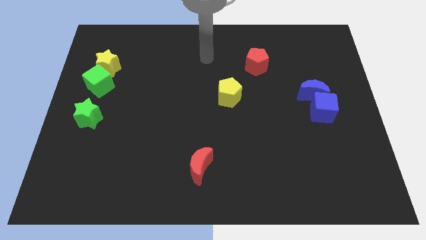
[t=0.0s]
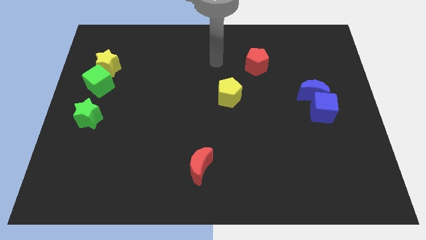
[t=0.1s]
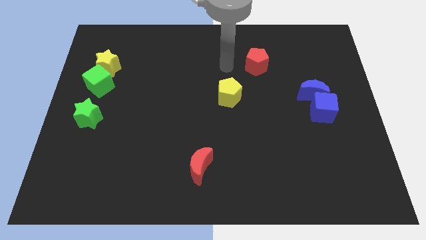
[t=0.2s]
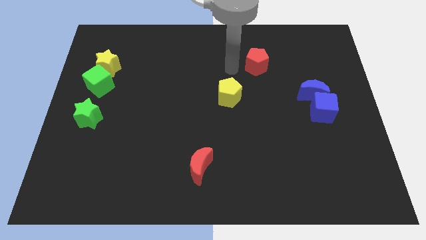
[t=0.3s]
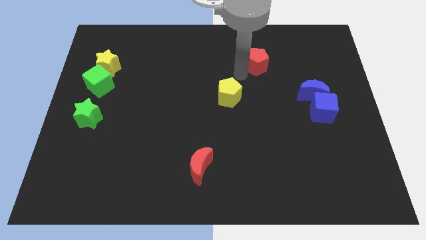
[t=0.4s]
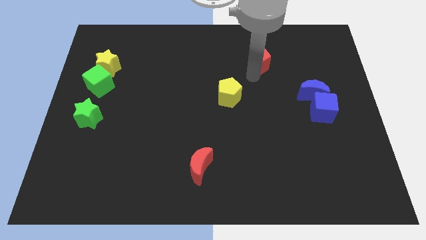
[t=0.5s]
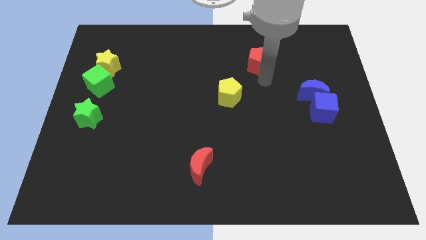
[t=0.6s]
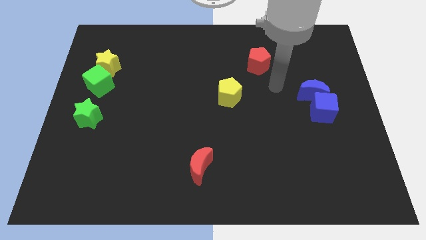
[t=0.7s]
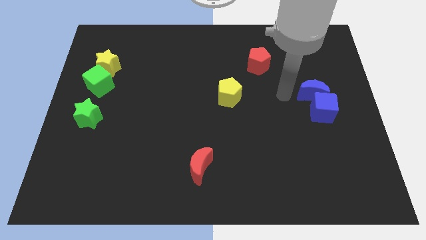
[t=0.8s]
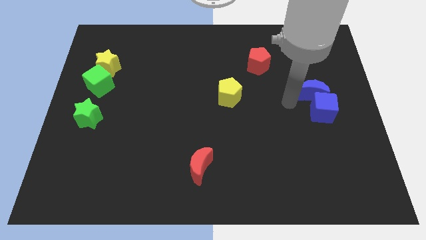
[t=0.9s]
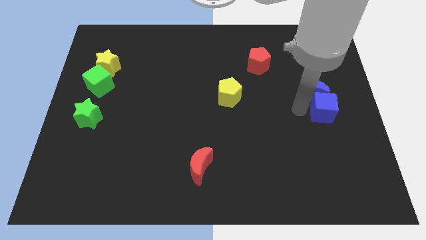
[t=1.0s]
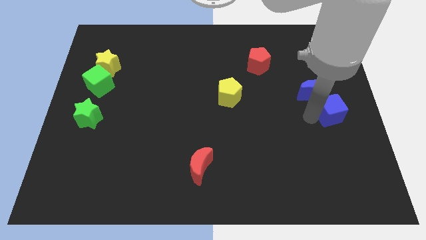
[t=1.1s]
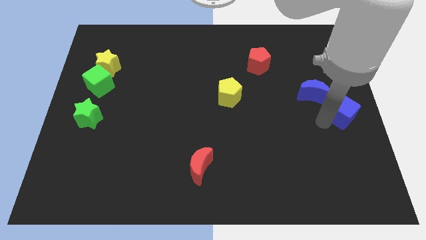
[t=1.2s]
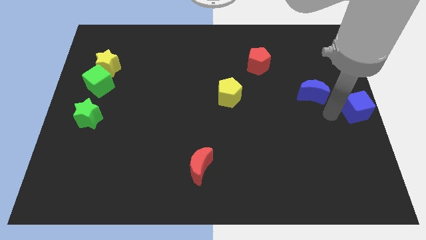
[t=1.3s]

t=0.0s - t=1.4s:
separate the blue moon from the blue cube

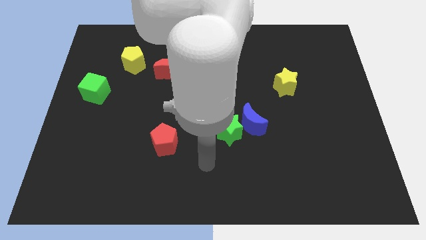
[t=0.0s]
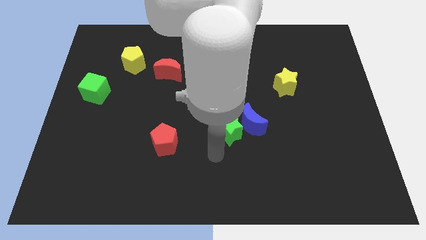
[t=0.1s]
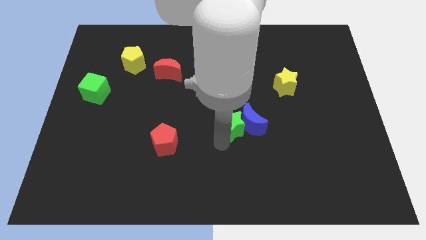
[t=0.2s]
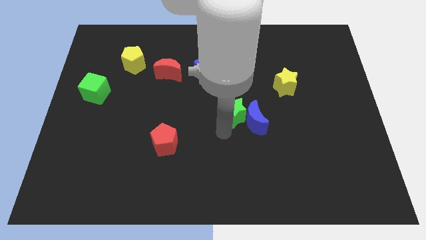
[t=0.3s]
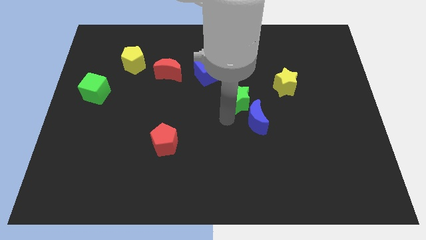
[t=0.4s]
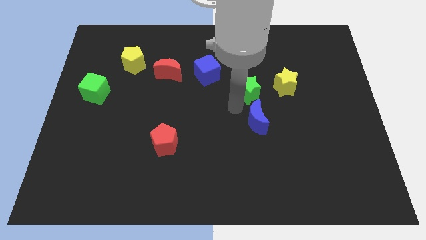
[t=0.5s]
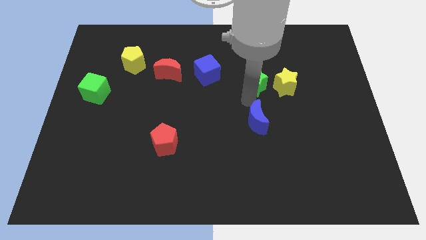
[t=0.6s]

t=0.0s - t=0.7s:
pull the blue moon apart from the green star

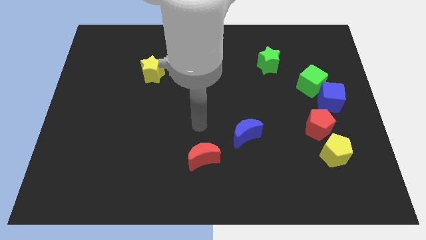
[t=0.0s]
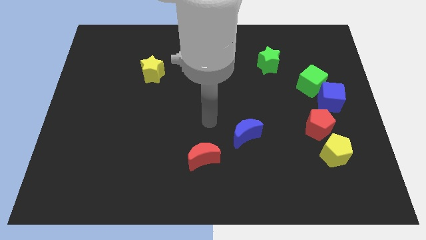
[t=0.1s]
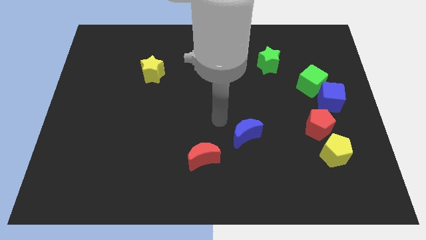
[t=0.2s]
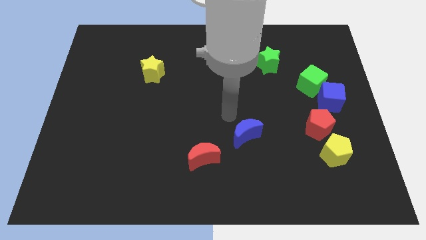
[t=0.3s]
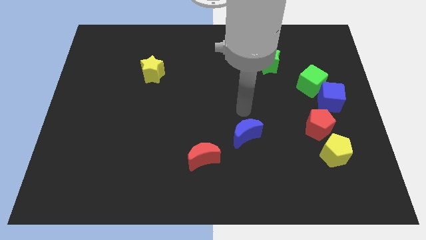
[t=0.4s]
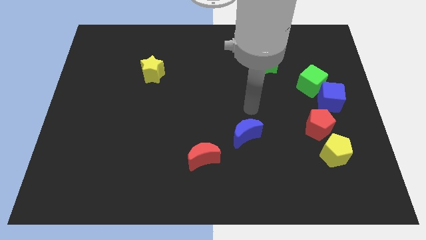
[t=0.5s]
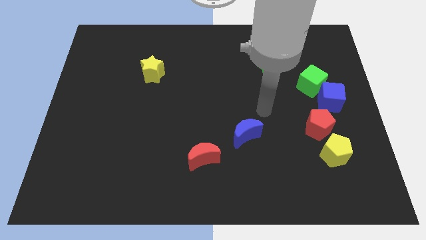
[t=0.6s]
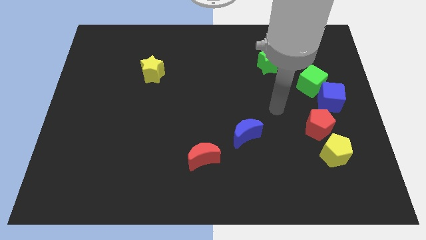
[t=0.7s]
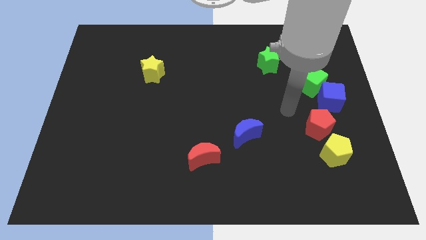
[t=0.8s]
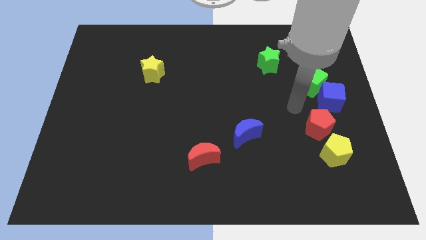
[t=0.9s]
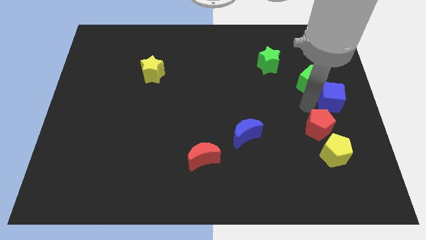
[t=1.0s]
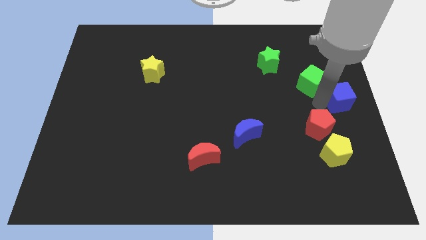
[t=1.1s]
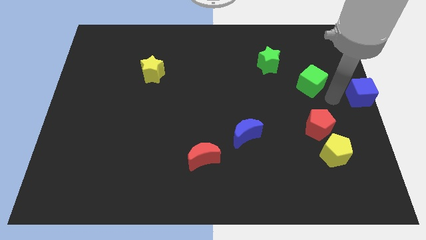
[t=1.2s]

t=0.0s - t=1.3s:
pull the green cube apart from the blue cube

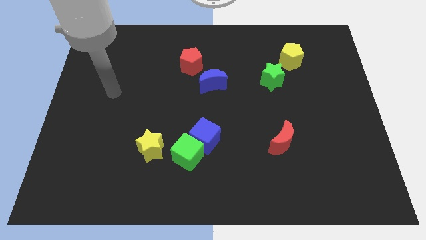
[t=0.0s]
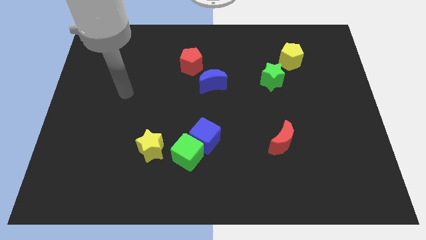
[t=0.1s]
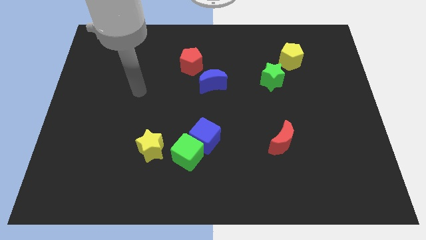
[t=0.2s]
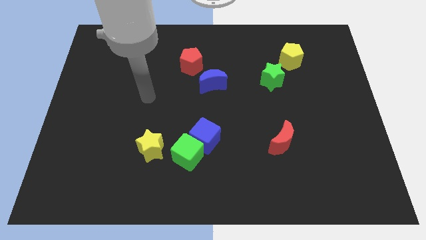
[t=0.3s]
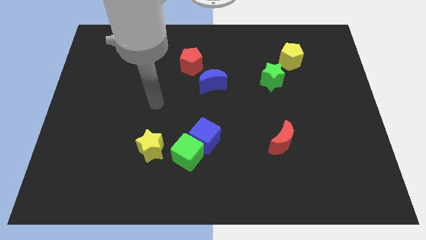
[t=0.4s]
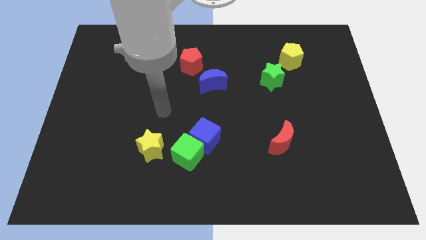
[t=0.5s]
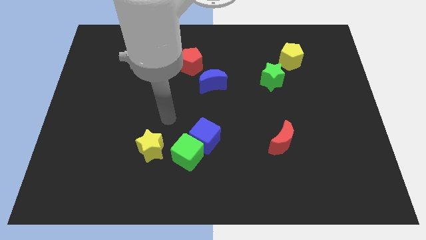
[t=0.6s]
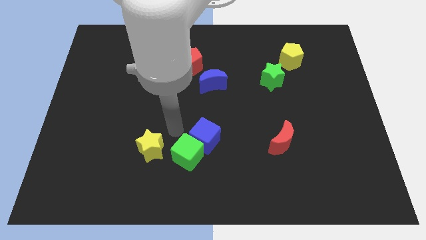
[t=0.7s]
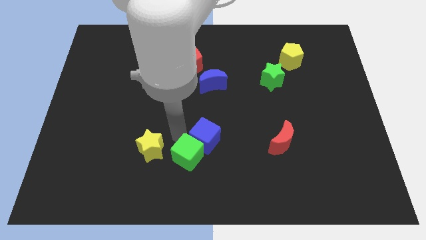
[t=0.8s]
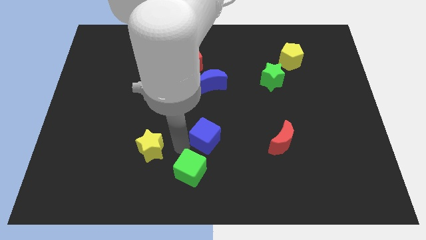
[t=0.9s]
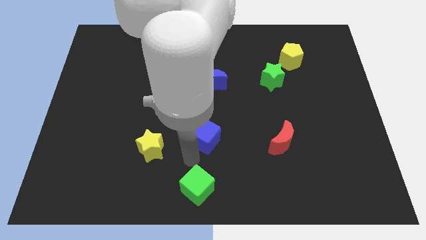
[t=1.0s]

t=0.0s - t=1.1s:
pull the blue cube apart from the green cube

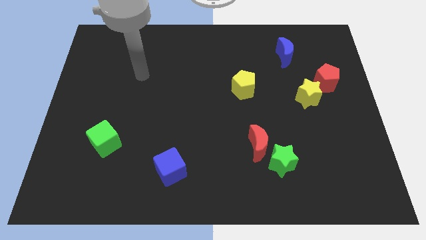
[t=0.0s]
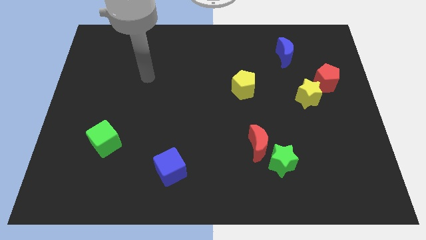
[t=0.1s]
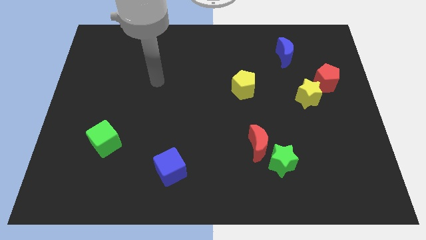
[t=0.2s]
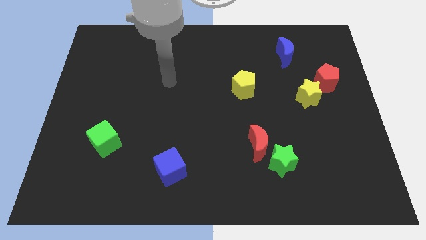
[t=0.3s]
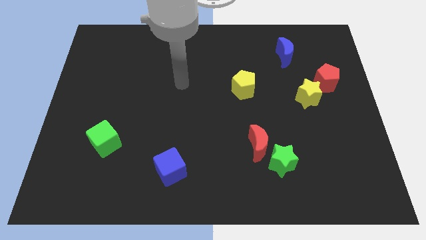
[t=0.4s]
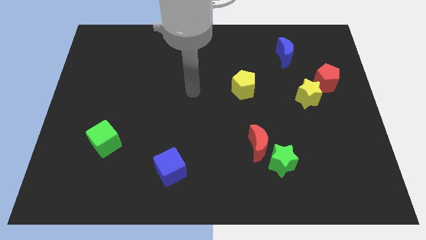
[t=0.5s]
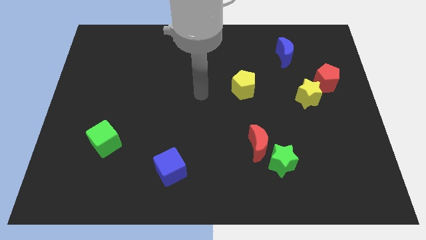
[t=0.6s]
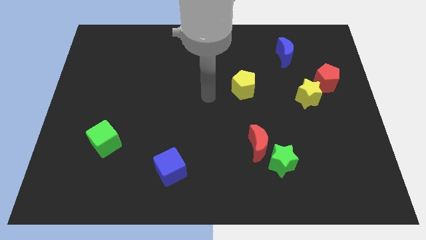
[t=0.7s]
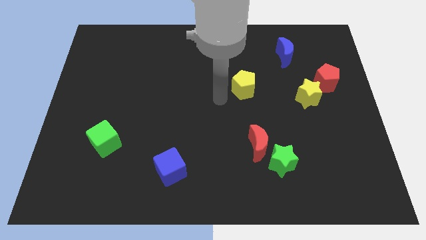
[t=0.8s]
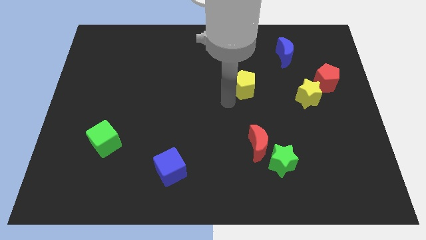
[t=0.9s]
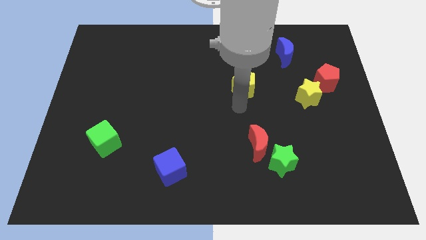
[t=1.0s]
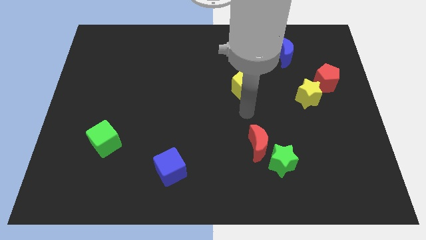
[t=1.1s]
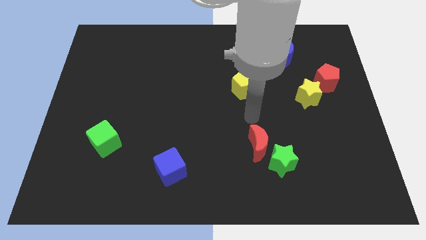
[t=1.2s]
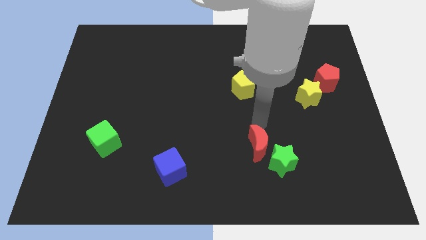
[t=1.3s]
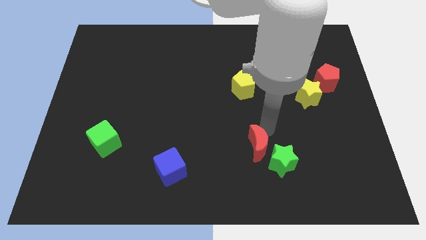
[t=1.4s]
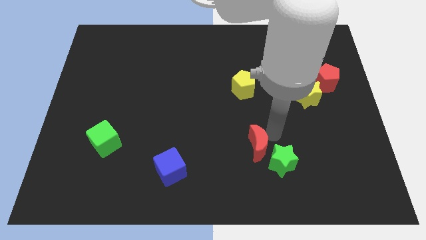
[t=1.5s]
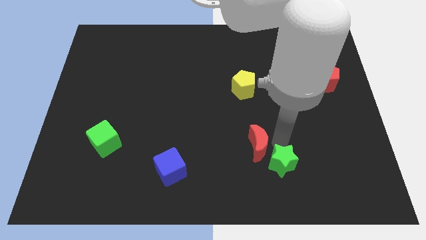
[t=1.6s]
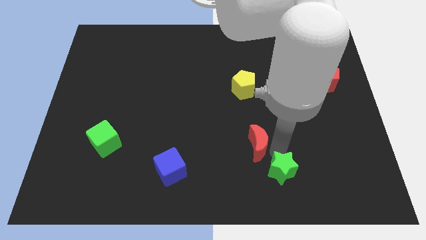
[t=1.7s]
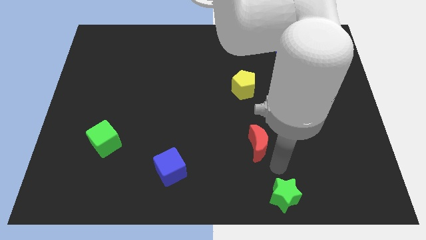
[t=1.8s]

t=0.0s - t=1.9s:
pull the red moon apart from the green star

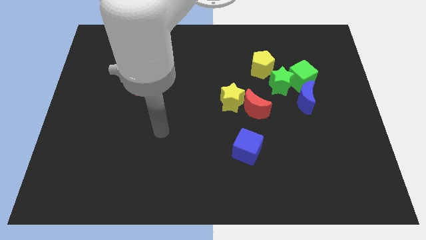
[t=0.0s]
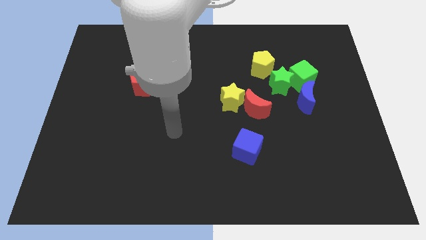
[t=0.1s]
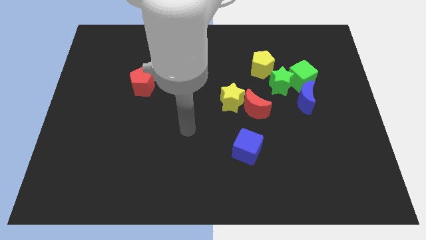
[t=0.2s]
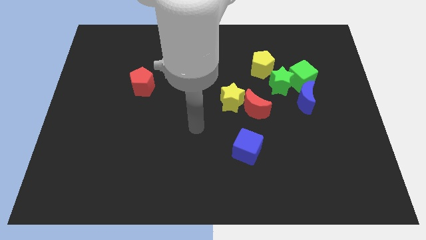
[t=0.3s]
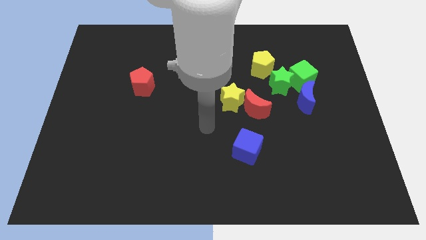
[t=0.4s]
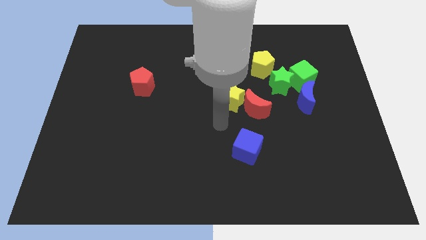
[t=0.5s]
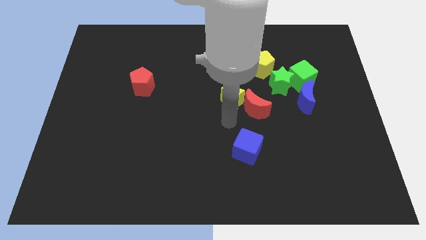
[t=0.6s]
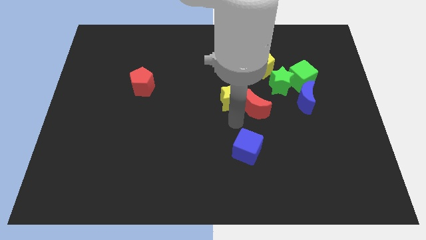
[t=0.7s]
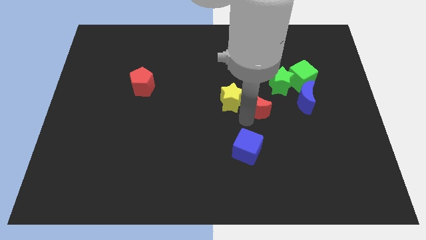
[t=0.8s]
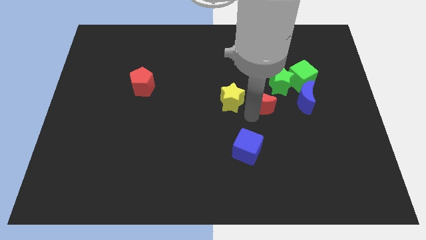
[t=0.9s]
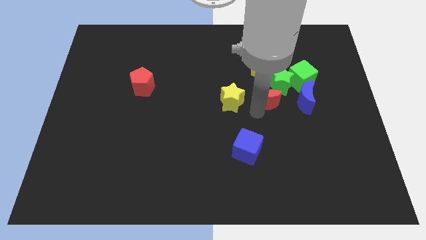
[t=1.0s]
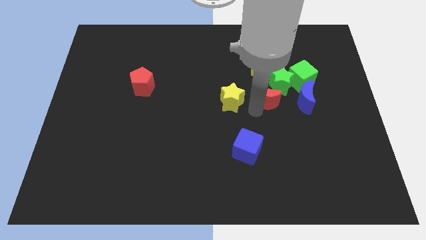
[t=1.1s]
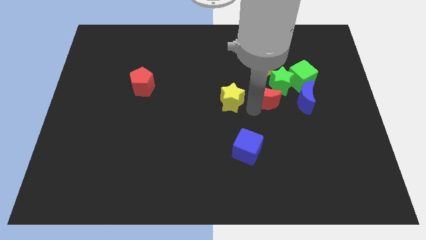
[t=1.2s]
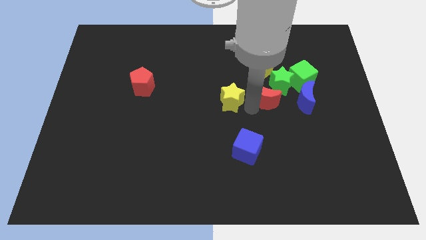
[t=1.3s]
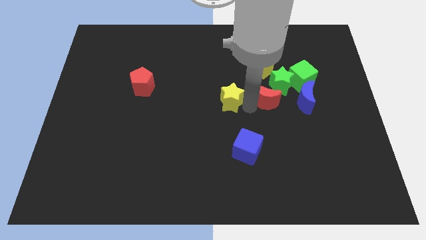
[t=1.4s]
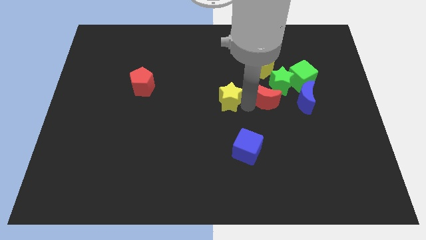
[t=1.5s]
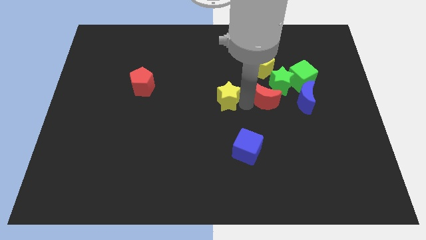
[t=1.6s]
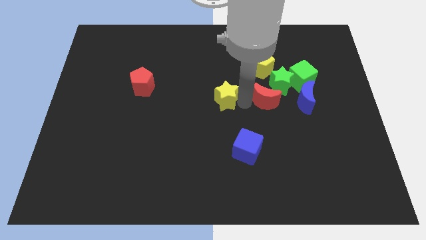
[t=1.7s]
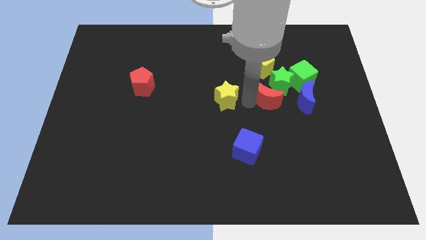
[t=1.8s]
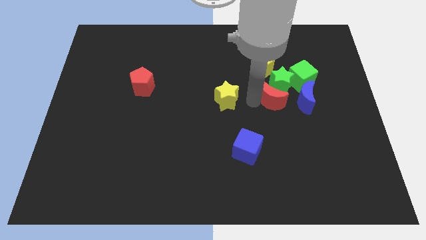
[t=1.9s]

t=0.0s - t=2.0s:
separate the yellow star from the red moon

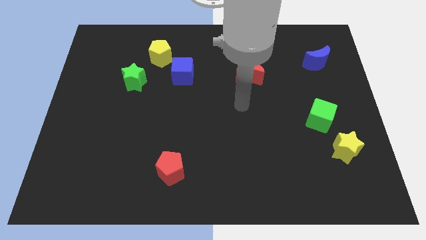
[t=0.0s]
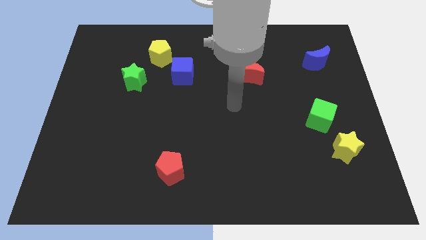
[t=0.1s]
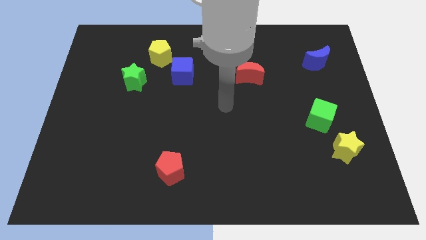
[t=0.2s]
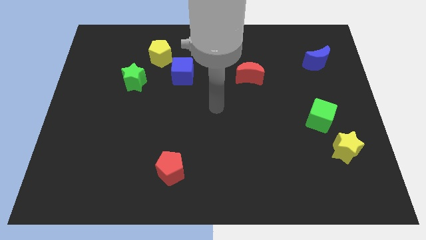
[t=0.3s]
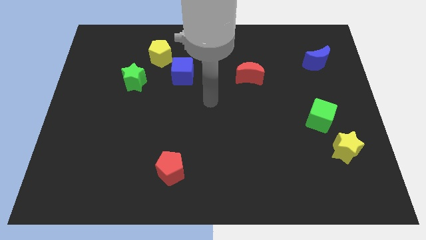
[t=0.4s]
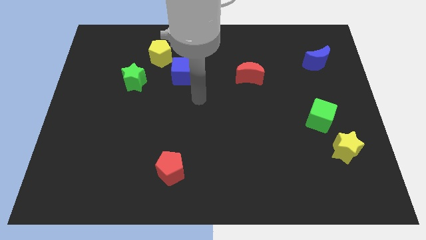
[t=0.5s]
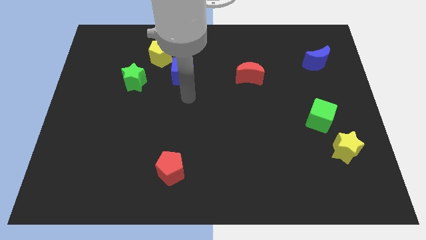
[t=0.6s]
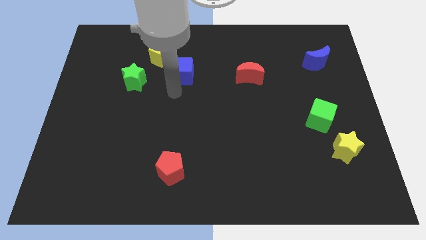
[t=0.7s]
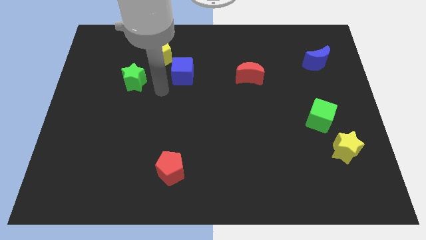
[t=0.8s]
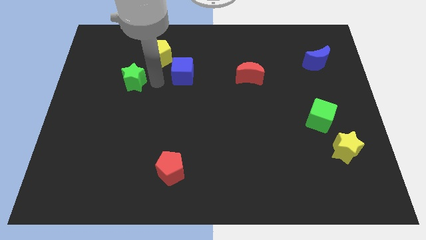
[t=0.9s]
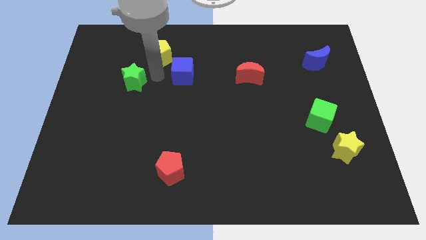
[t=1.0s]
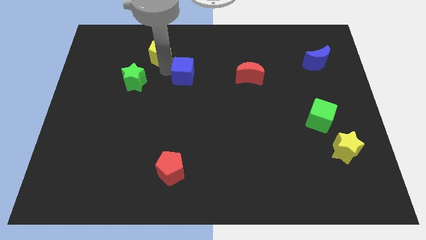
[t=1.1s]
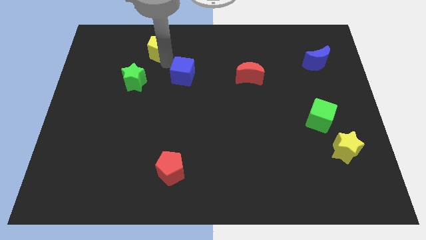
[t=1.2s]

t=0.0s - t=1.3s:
pull the blue cube apart from the yellow pentagon
